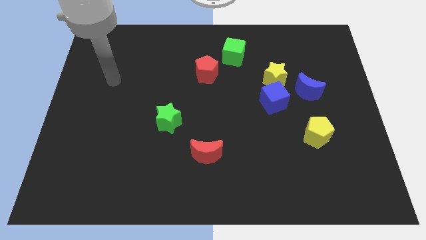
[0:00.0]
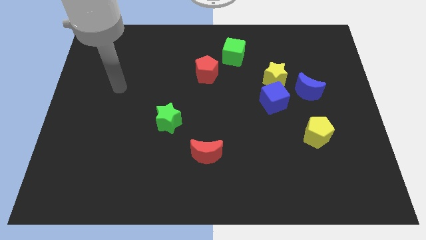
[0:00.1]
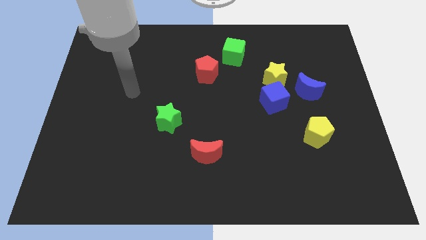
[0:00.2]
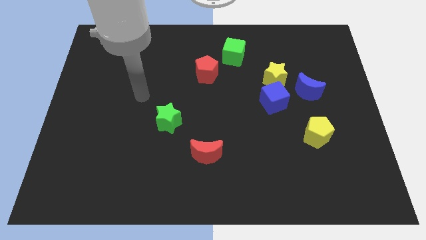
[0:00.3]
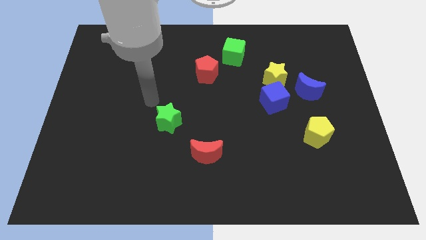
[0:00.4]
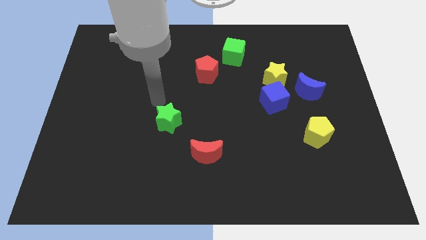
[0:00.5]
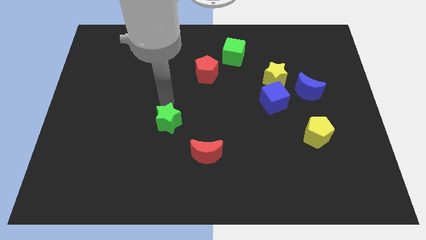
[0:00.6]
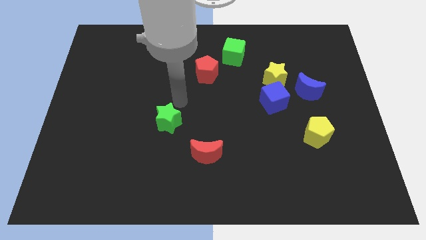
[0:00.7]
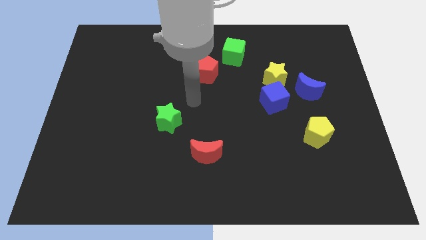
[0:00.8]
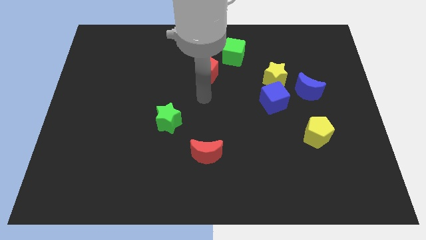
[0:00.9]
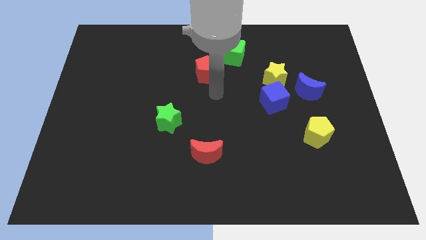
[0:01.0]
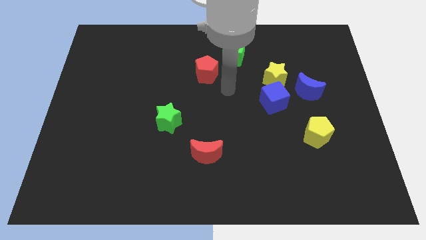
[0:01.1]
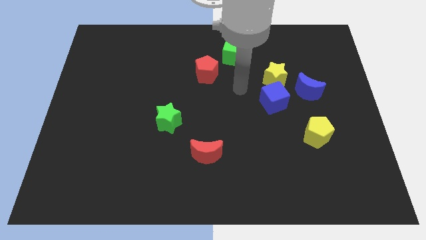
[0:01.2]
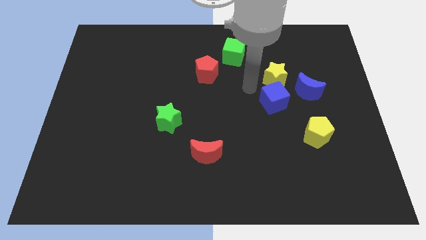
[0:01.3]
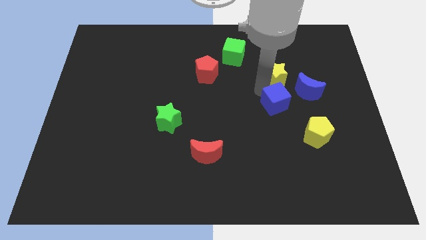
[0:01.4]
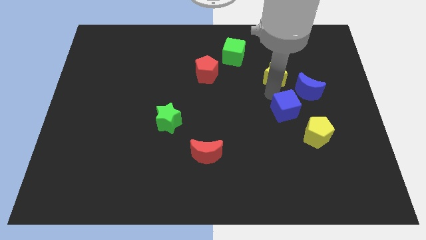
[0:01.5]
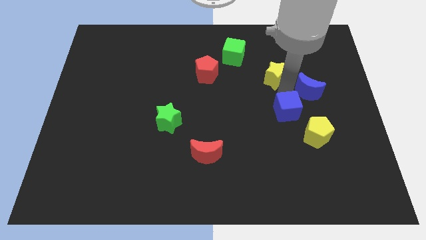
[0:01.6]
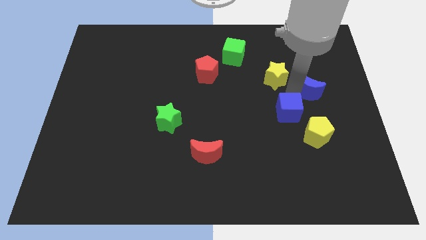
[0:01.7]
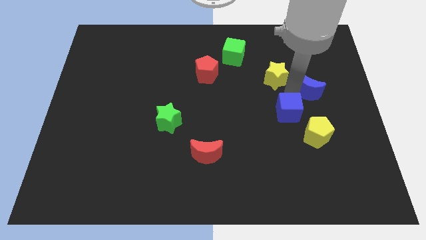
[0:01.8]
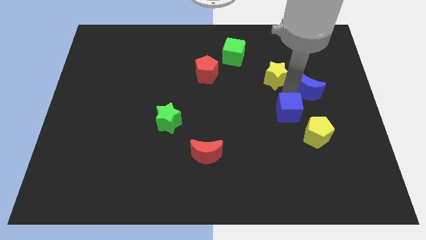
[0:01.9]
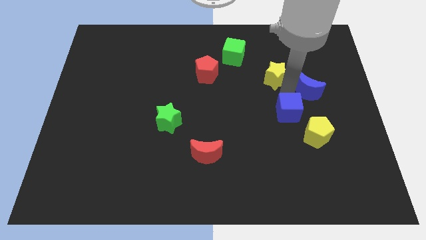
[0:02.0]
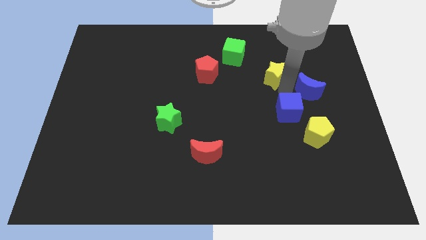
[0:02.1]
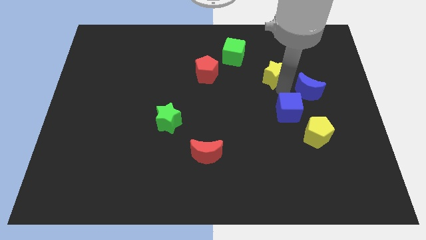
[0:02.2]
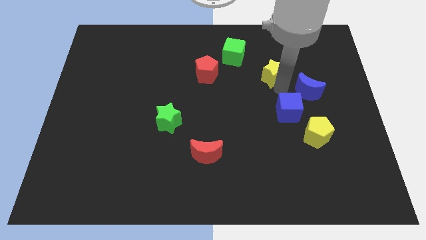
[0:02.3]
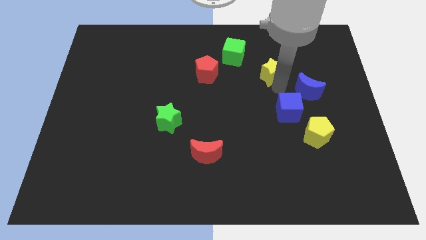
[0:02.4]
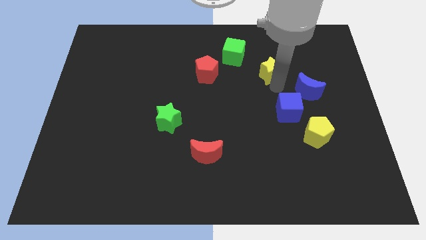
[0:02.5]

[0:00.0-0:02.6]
separate the yellow star from the blue cube and blue moon

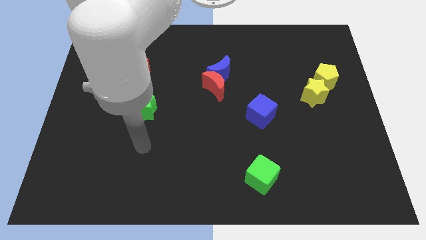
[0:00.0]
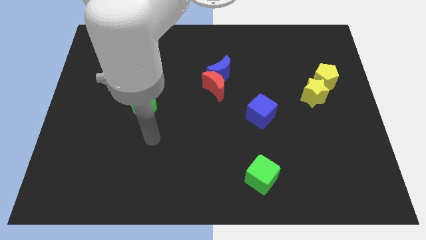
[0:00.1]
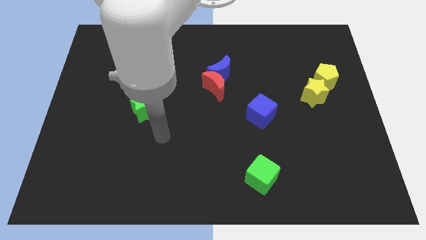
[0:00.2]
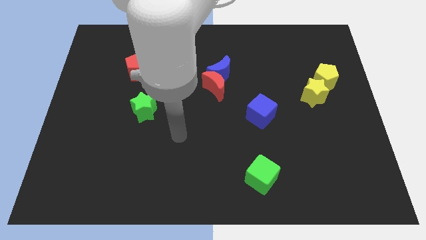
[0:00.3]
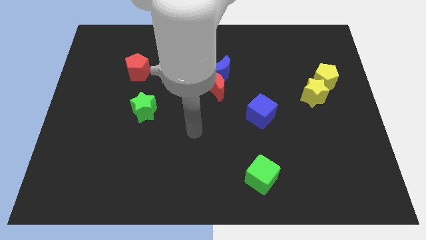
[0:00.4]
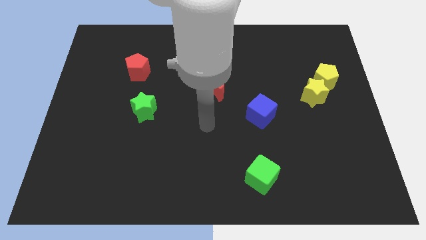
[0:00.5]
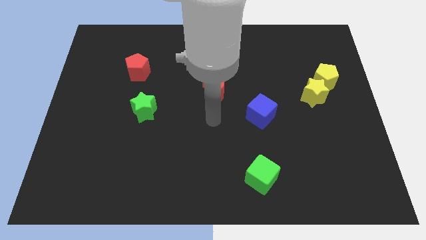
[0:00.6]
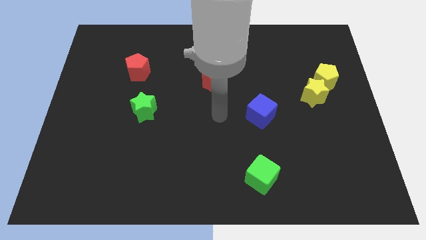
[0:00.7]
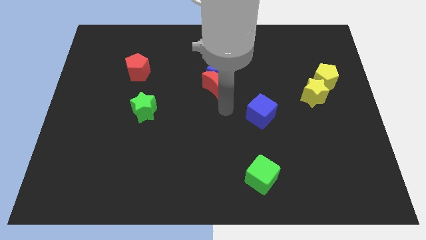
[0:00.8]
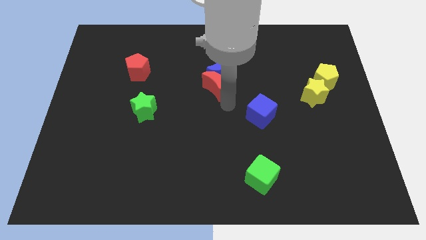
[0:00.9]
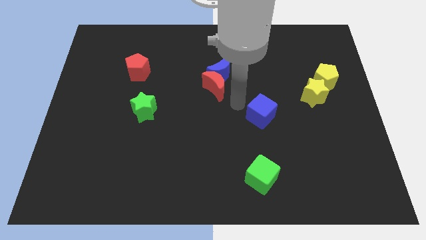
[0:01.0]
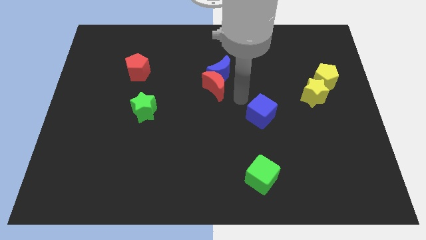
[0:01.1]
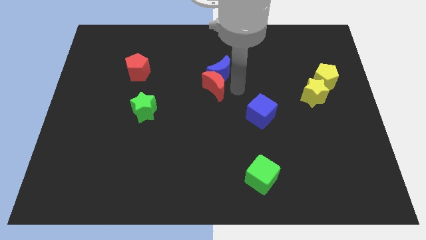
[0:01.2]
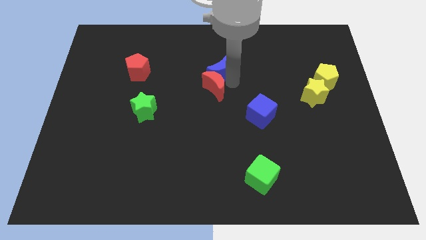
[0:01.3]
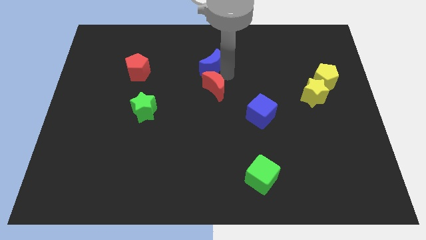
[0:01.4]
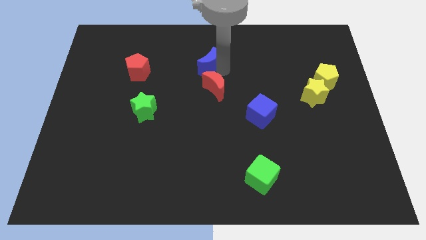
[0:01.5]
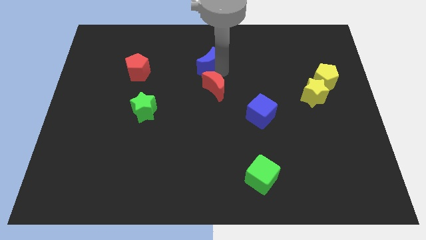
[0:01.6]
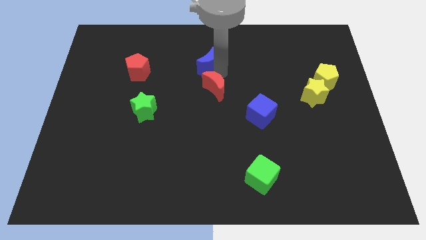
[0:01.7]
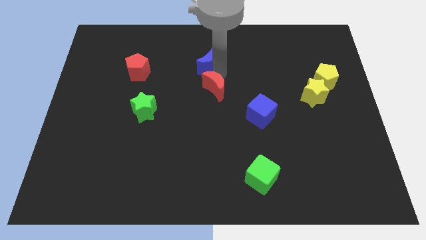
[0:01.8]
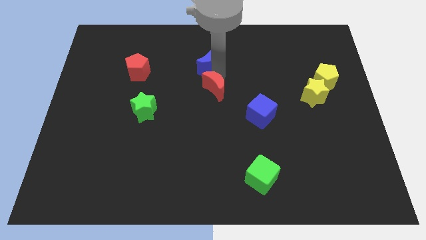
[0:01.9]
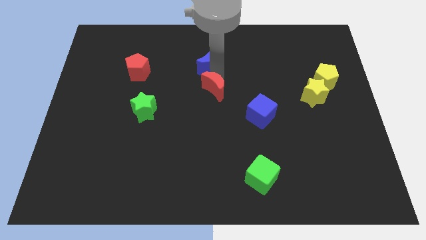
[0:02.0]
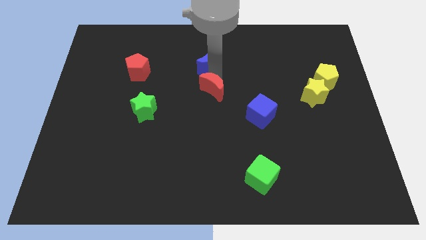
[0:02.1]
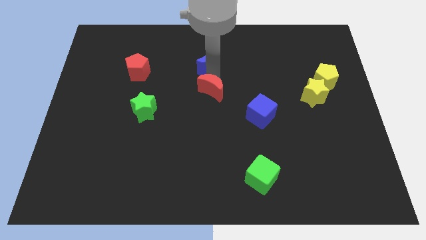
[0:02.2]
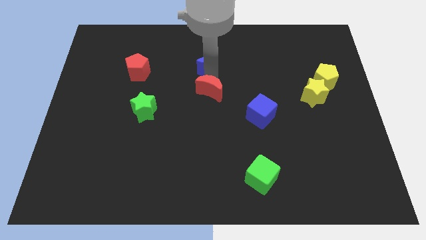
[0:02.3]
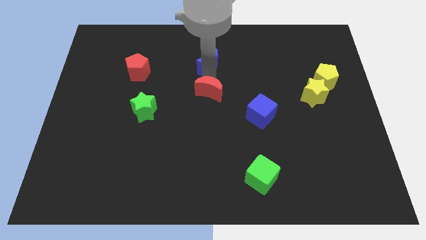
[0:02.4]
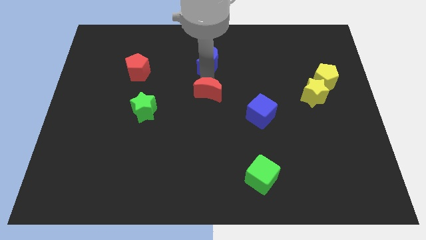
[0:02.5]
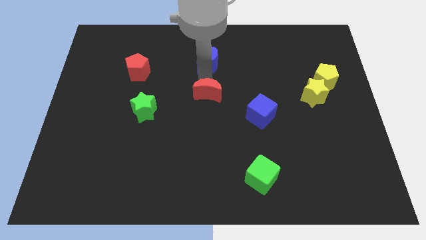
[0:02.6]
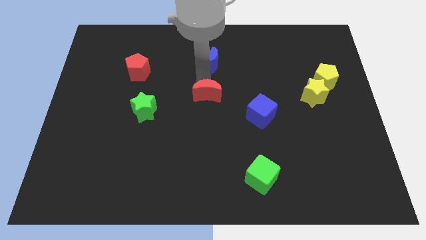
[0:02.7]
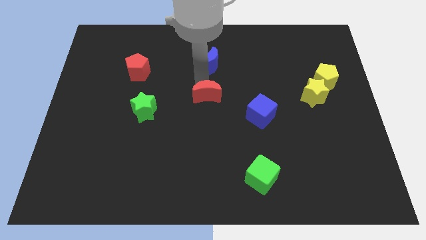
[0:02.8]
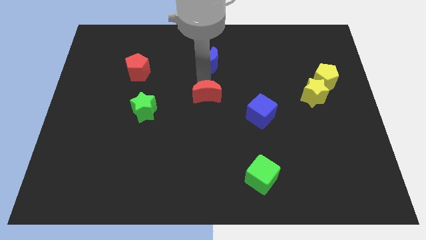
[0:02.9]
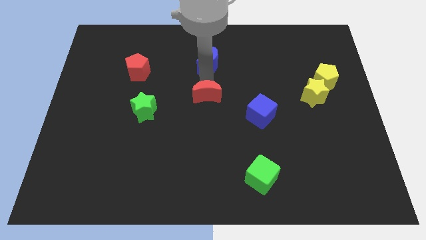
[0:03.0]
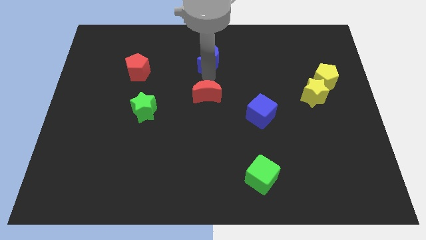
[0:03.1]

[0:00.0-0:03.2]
pull the red moon apart from the blue moon

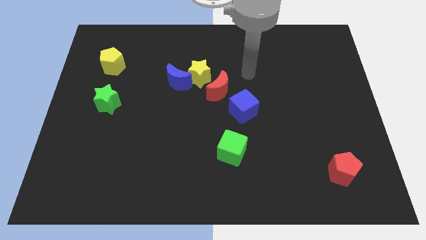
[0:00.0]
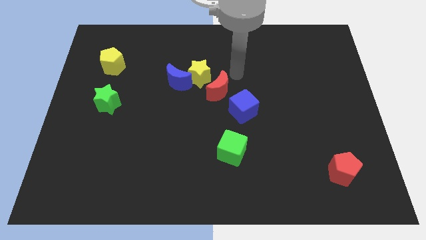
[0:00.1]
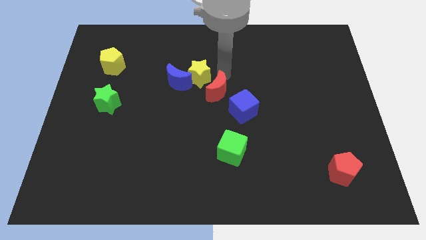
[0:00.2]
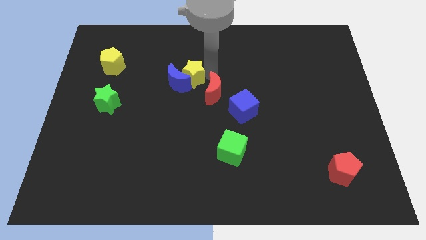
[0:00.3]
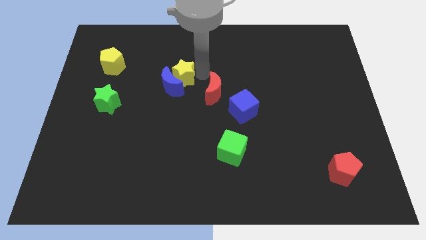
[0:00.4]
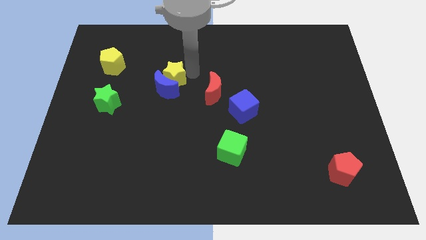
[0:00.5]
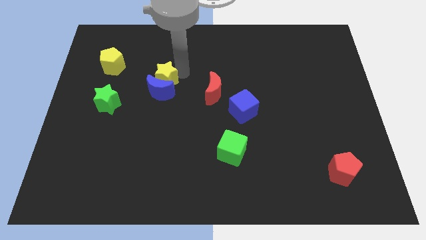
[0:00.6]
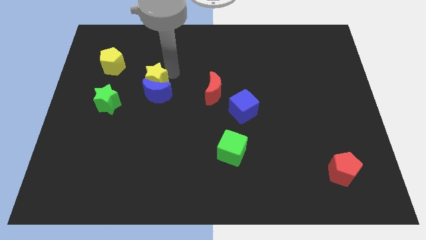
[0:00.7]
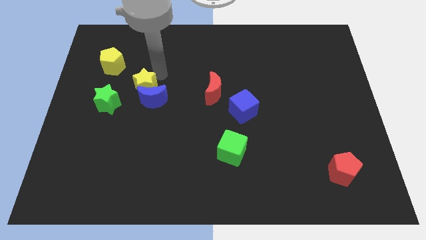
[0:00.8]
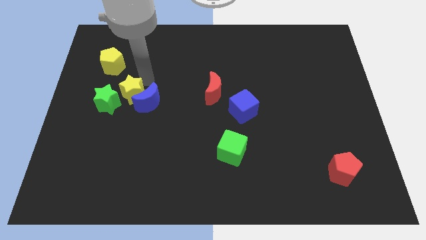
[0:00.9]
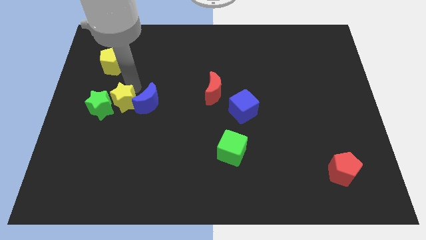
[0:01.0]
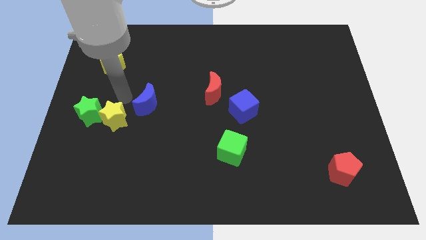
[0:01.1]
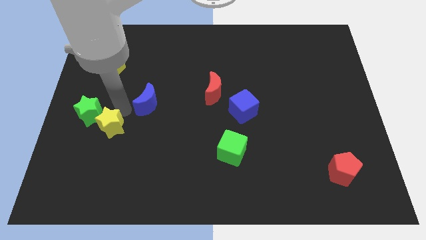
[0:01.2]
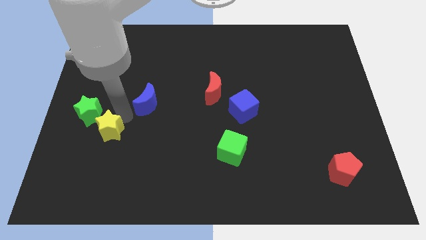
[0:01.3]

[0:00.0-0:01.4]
move the blue moon away from the yellow star

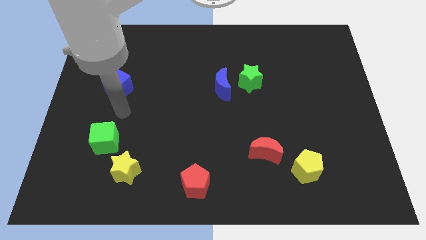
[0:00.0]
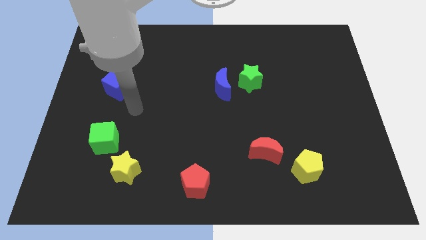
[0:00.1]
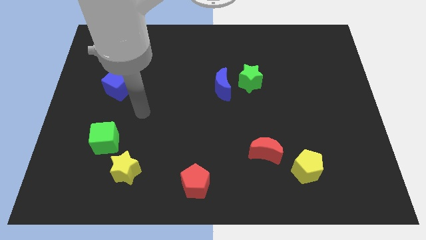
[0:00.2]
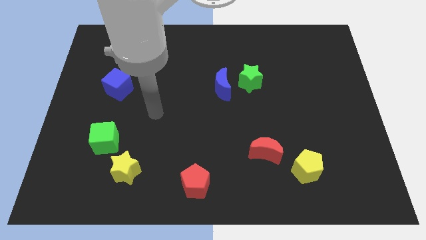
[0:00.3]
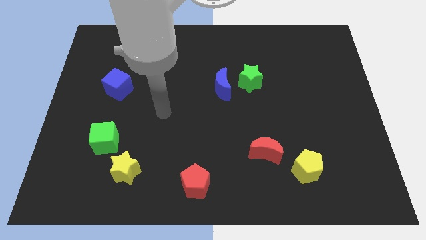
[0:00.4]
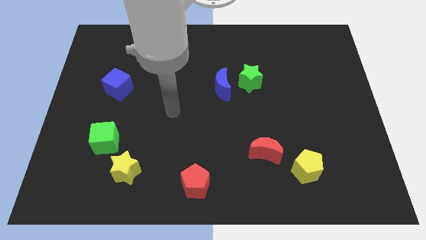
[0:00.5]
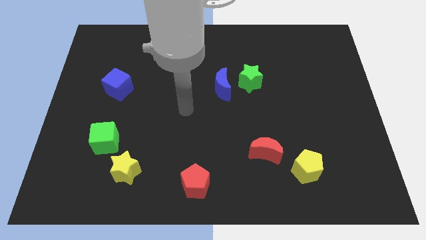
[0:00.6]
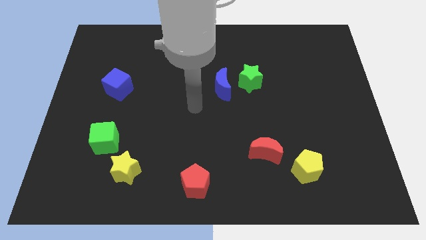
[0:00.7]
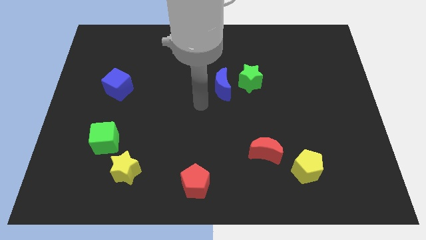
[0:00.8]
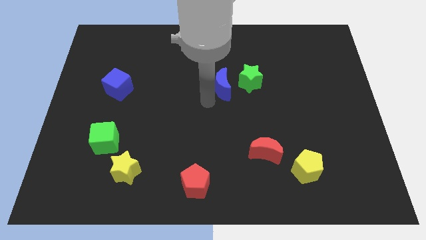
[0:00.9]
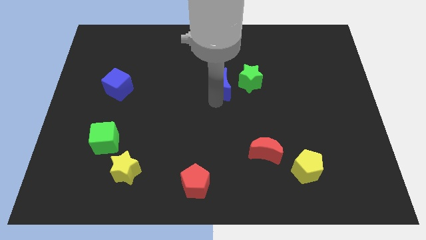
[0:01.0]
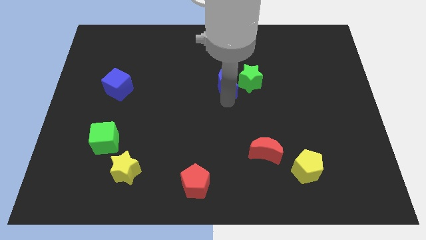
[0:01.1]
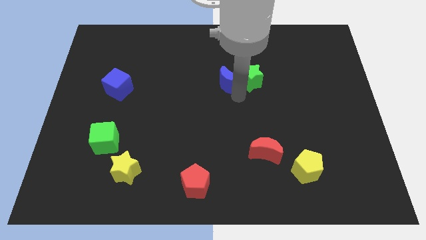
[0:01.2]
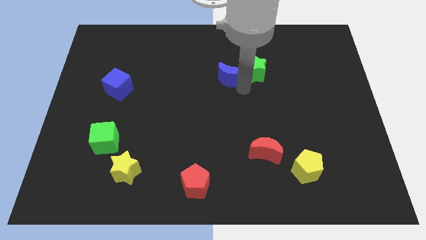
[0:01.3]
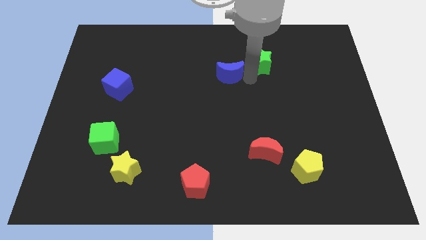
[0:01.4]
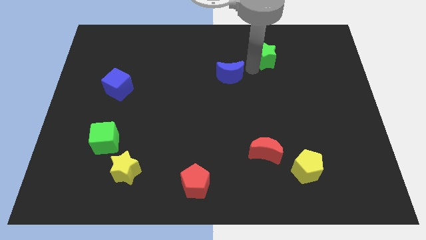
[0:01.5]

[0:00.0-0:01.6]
separate the blue moon from the green star

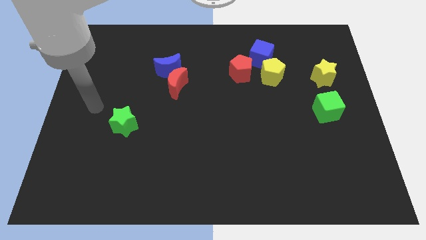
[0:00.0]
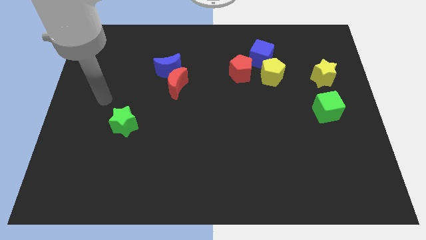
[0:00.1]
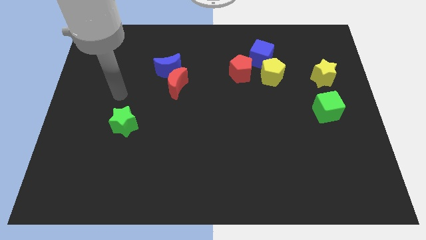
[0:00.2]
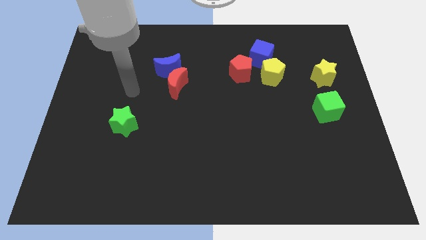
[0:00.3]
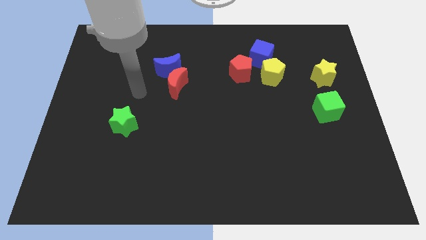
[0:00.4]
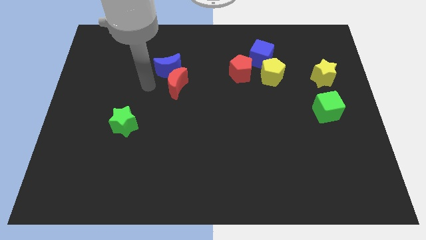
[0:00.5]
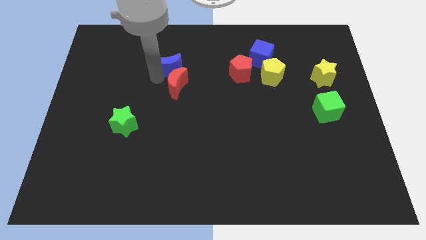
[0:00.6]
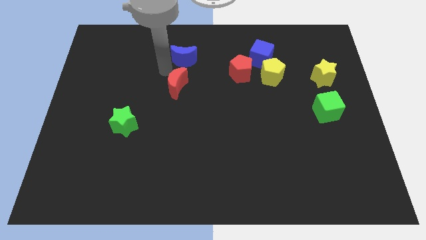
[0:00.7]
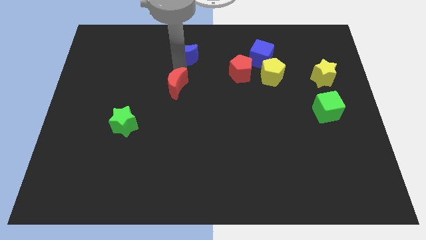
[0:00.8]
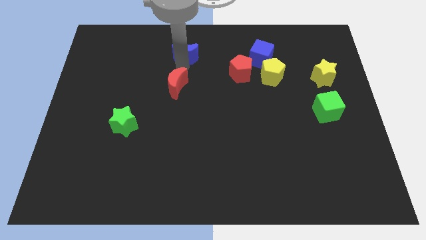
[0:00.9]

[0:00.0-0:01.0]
separate the red moon from the blue moon
